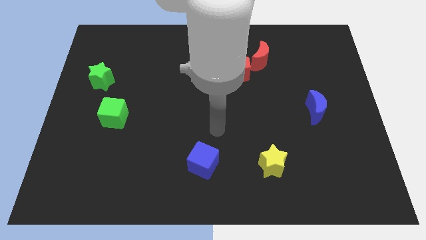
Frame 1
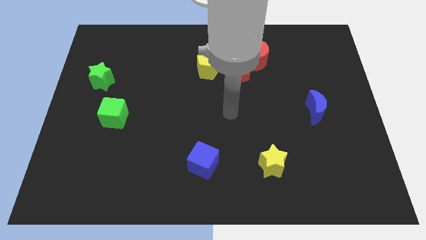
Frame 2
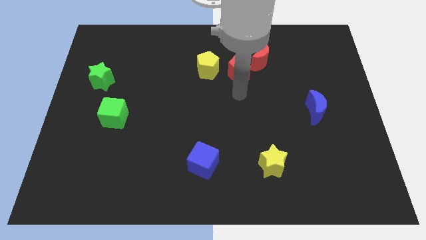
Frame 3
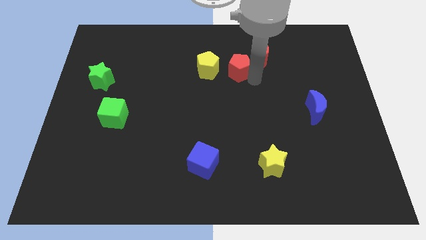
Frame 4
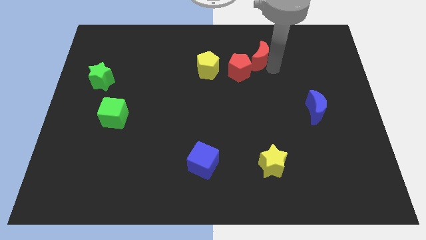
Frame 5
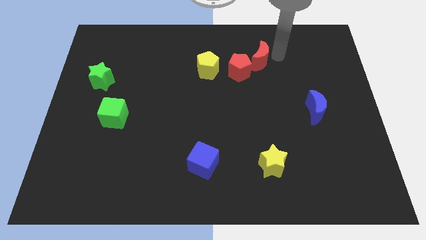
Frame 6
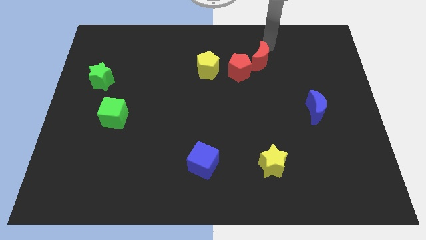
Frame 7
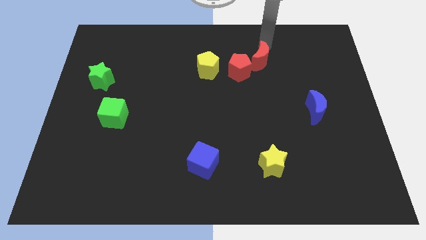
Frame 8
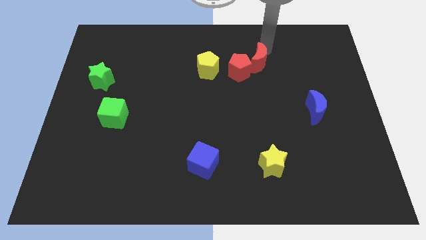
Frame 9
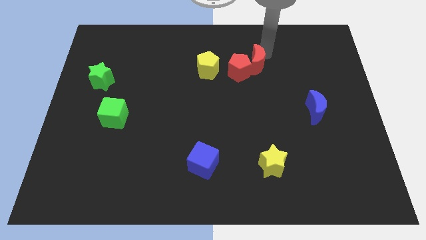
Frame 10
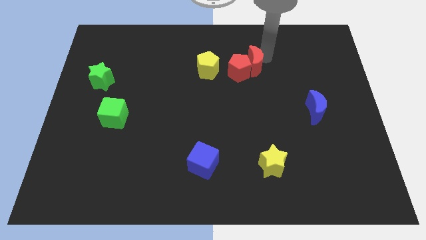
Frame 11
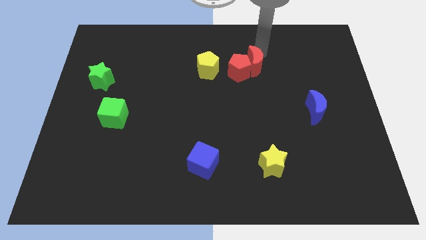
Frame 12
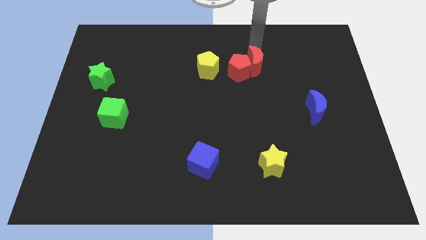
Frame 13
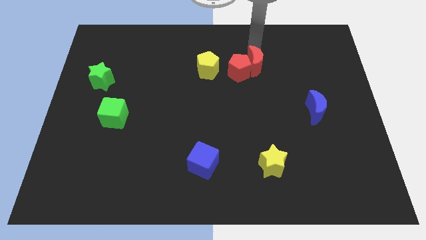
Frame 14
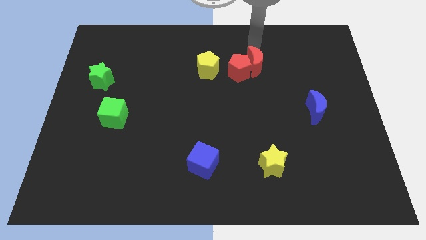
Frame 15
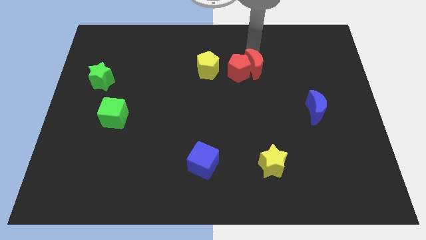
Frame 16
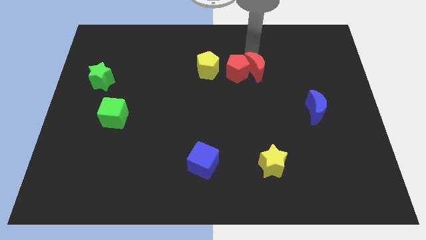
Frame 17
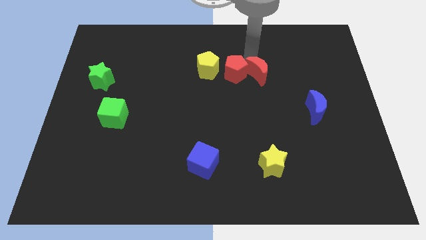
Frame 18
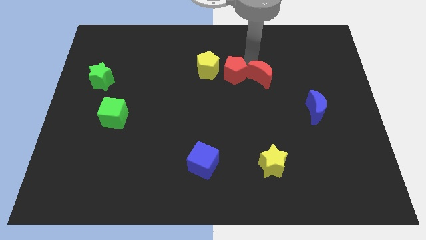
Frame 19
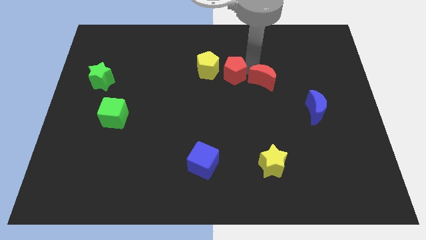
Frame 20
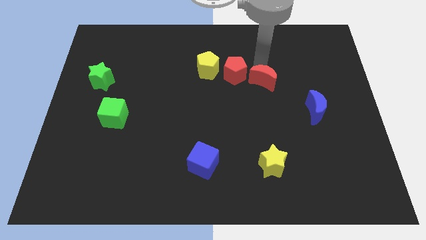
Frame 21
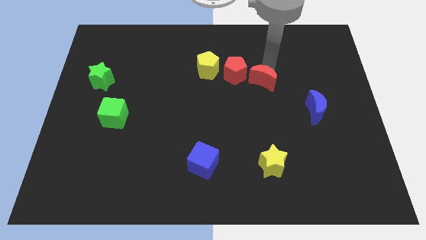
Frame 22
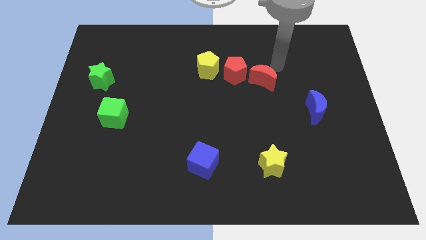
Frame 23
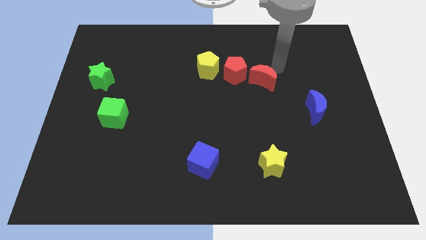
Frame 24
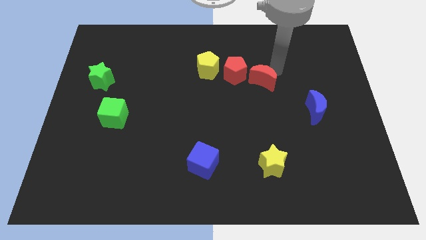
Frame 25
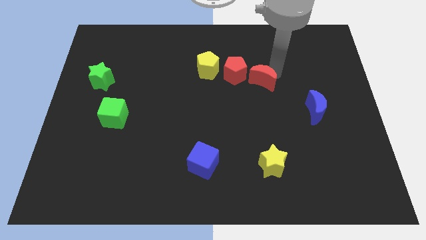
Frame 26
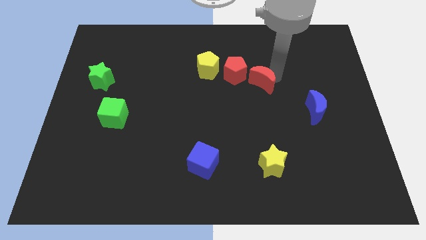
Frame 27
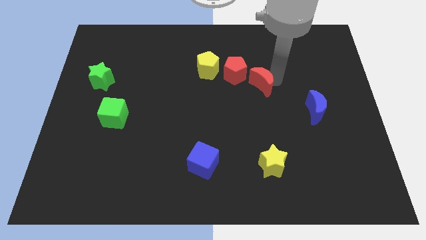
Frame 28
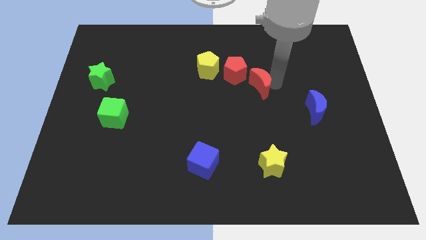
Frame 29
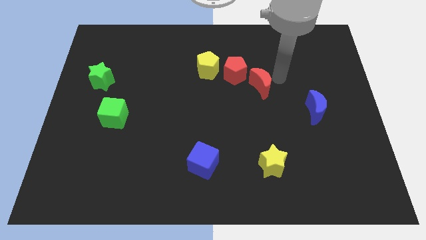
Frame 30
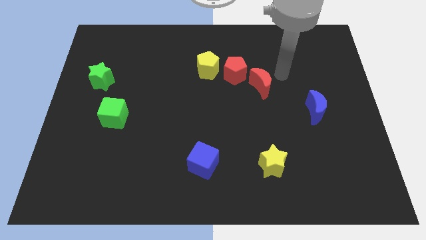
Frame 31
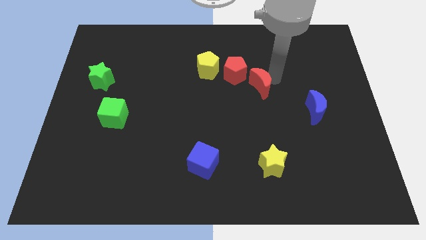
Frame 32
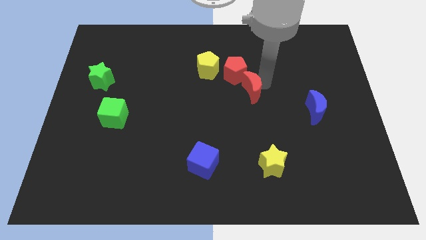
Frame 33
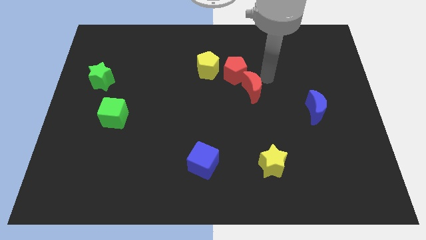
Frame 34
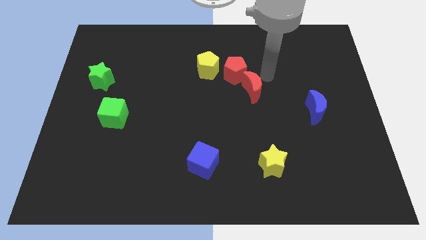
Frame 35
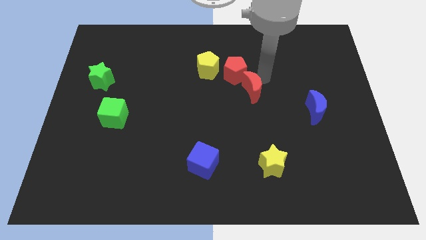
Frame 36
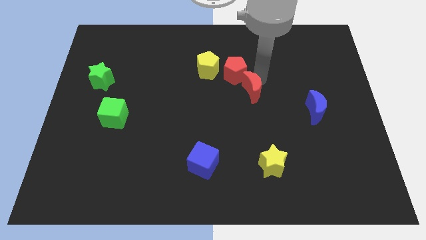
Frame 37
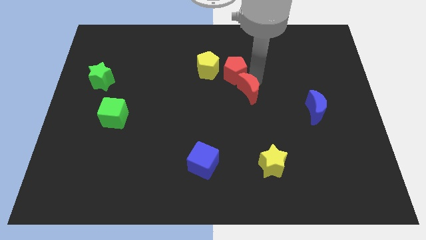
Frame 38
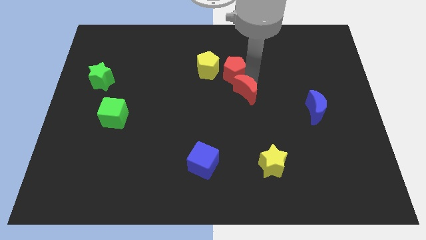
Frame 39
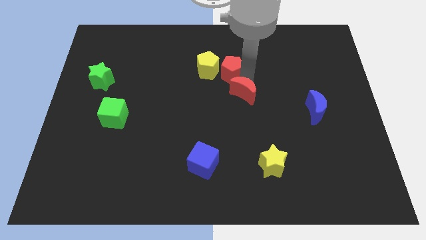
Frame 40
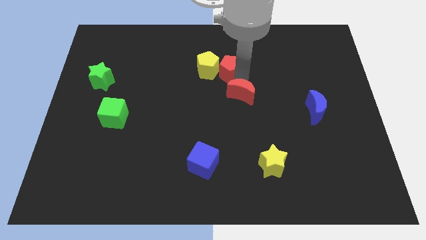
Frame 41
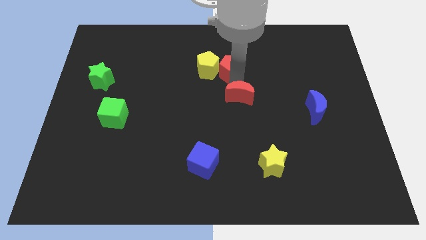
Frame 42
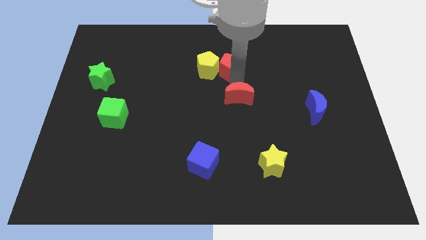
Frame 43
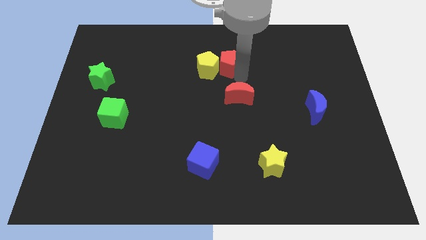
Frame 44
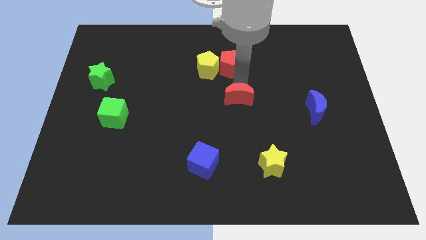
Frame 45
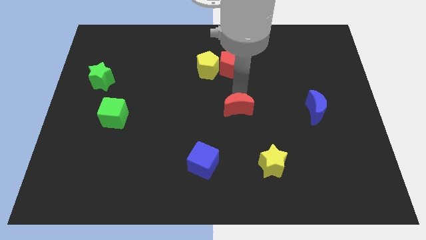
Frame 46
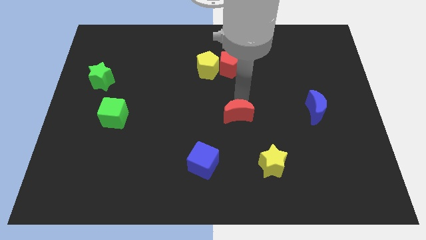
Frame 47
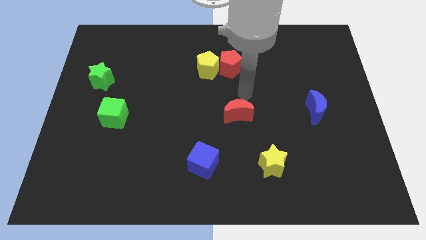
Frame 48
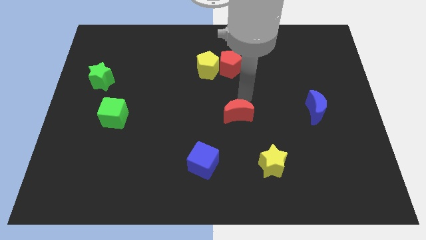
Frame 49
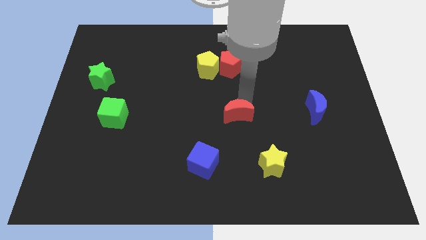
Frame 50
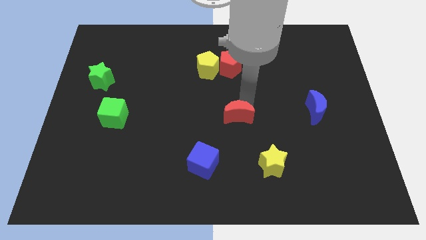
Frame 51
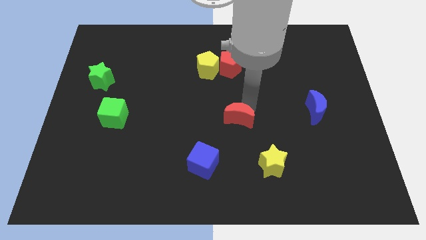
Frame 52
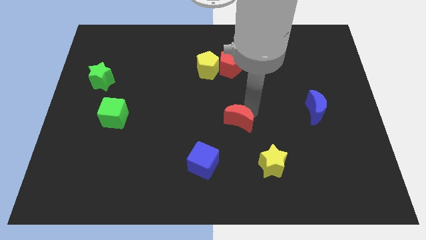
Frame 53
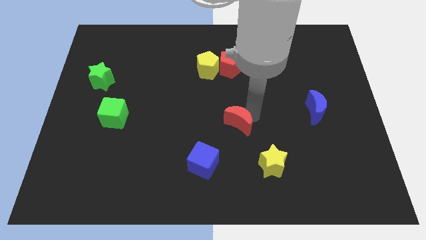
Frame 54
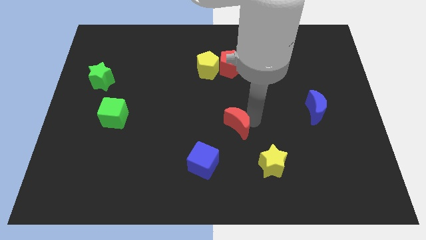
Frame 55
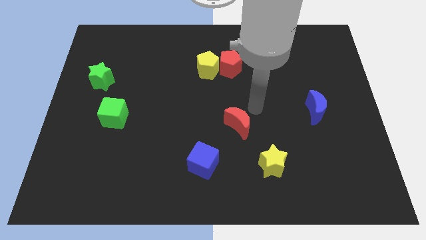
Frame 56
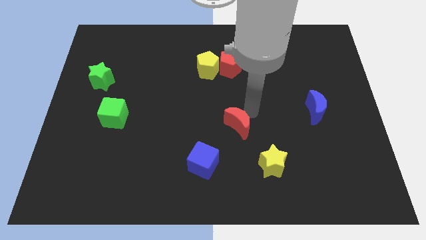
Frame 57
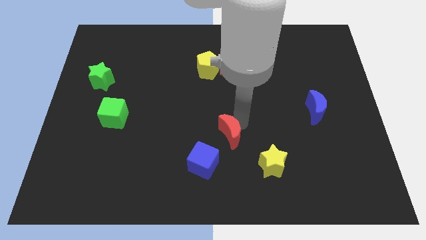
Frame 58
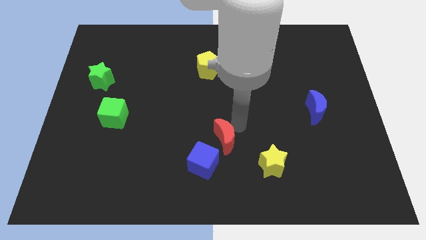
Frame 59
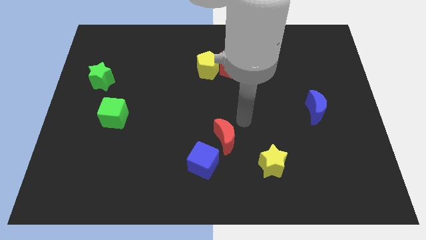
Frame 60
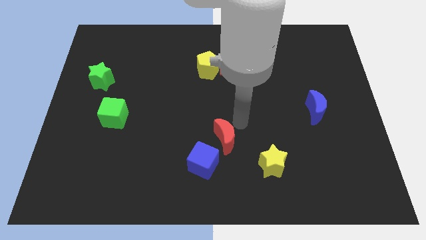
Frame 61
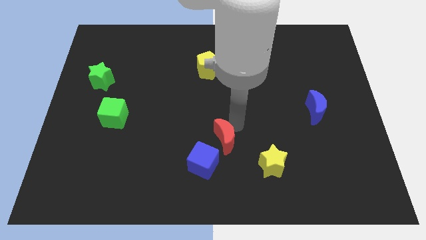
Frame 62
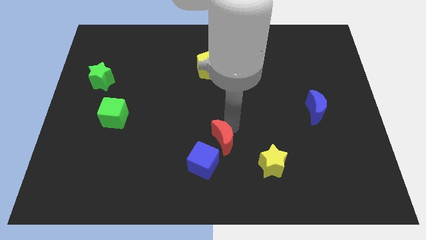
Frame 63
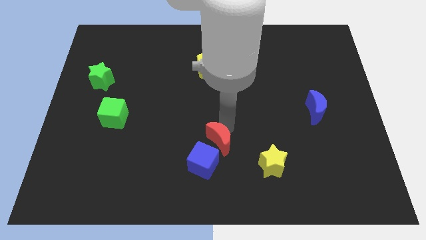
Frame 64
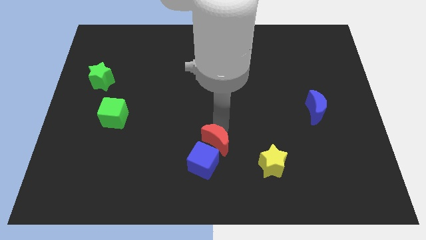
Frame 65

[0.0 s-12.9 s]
push the red moon towards the blue cube

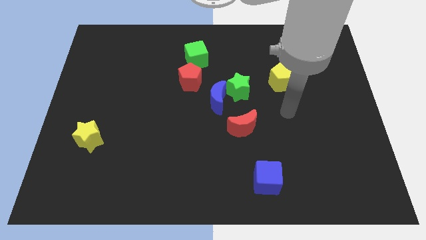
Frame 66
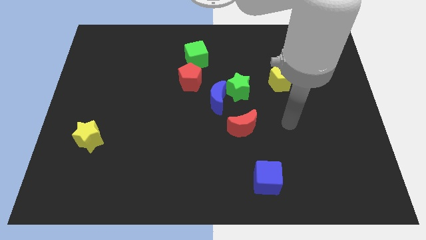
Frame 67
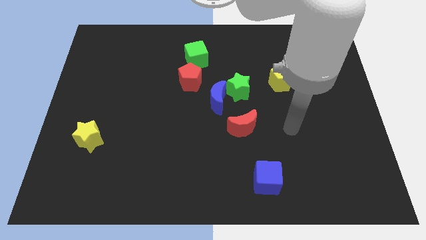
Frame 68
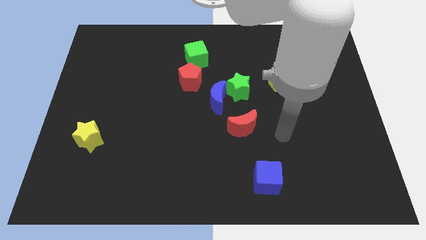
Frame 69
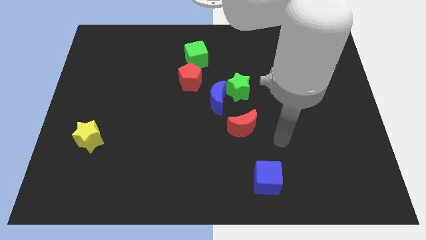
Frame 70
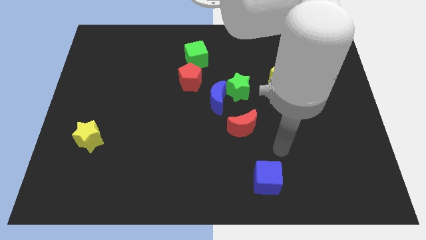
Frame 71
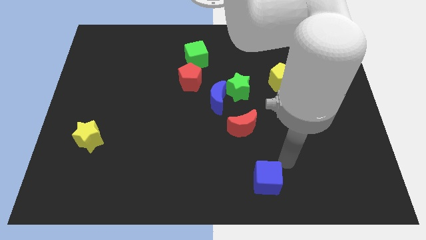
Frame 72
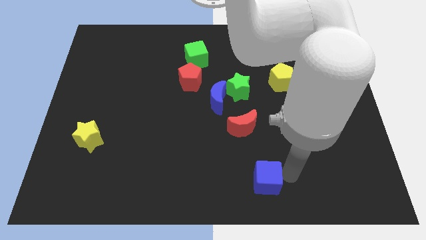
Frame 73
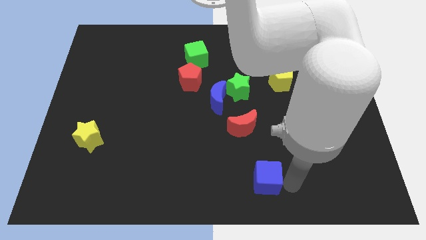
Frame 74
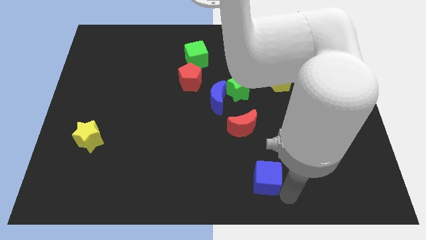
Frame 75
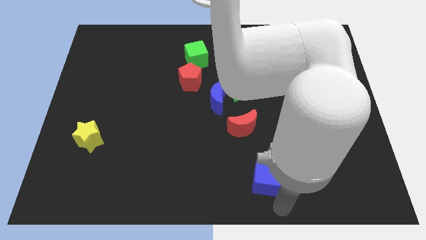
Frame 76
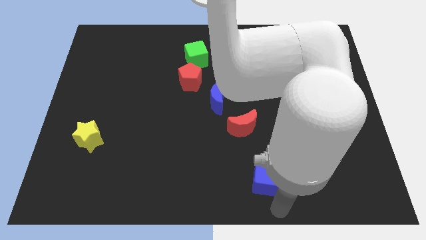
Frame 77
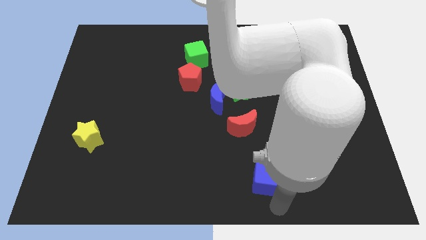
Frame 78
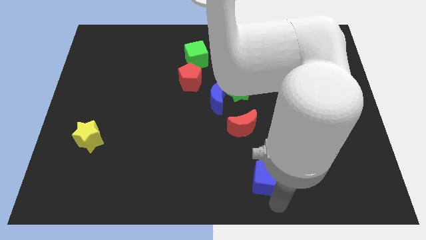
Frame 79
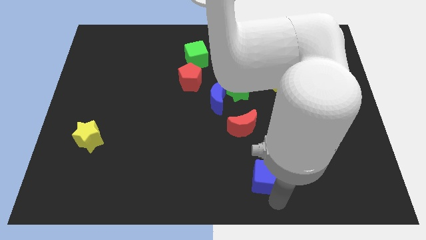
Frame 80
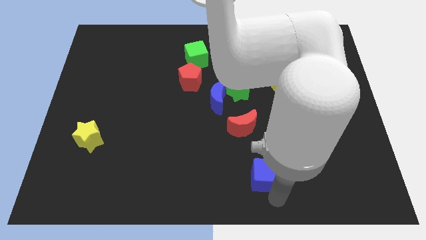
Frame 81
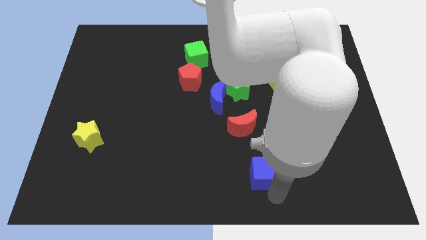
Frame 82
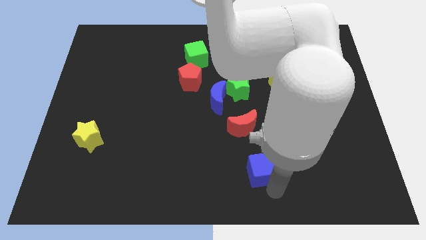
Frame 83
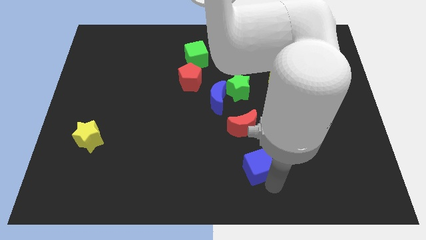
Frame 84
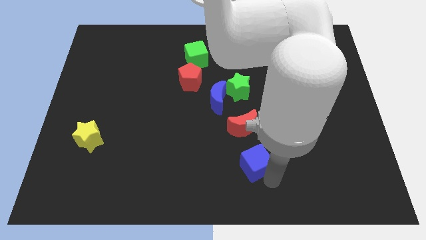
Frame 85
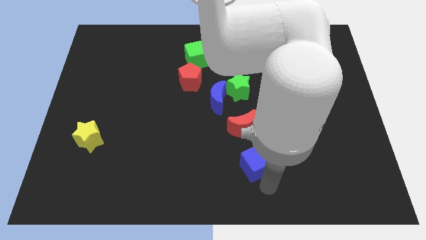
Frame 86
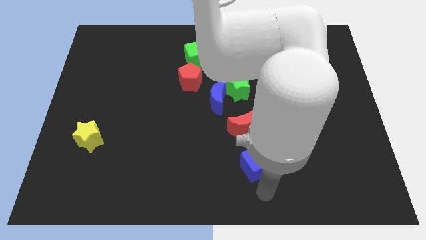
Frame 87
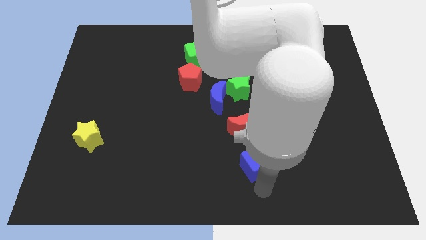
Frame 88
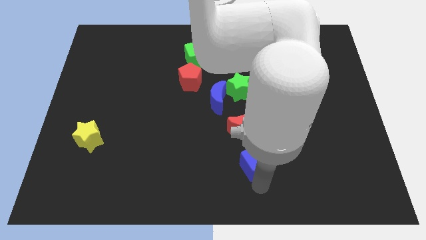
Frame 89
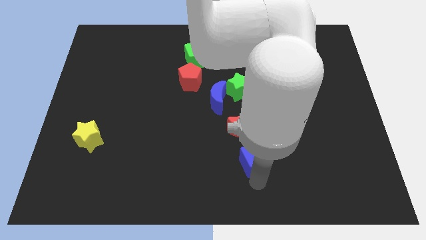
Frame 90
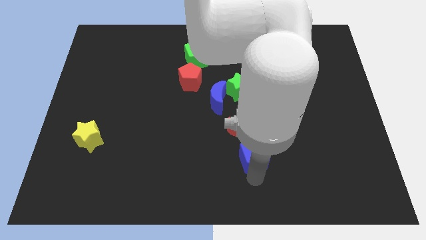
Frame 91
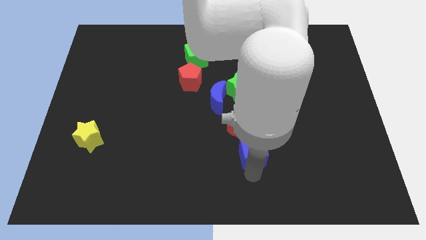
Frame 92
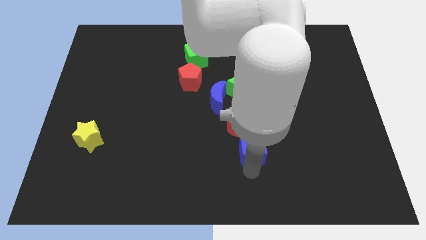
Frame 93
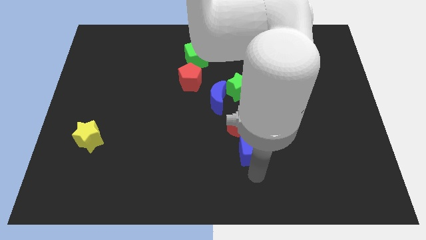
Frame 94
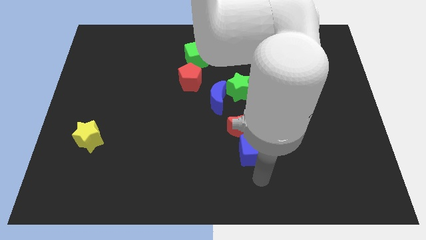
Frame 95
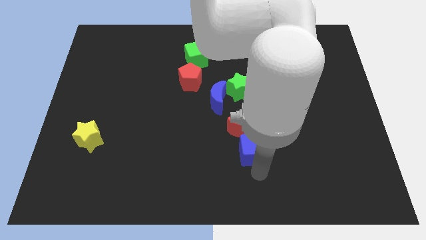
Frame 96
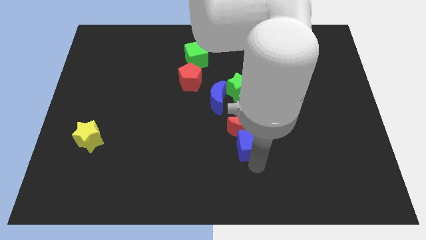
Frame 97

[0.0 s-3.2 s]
put the blue cube towards the red moon
